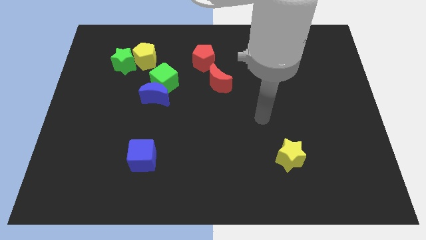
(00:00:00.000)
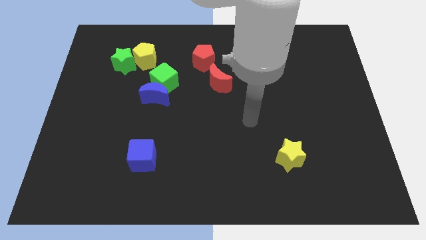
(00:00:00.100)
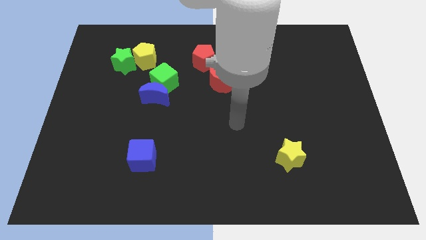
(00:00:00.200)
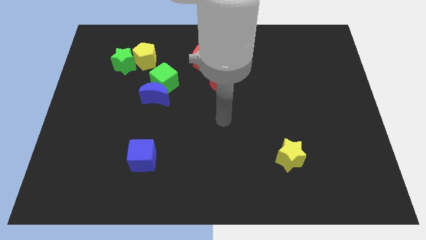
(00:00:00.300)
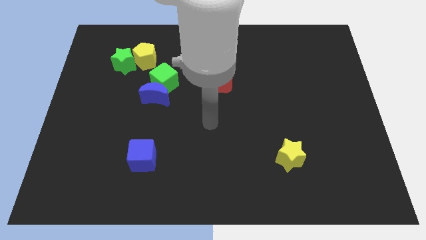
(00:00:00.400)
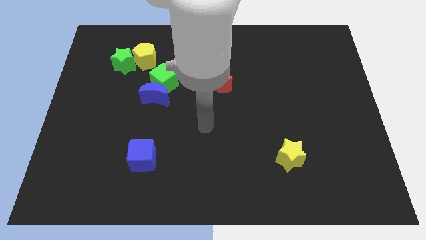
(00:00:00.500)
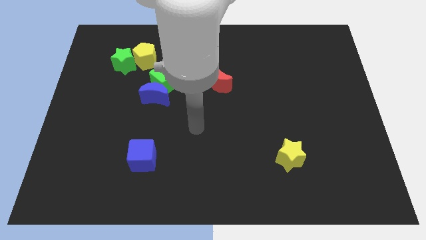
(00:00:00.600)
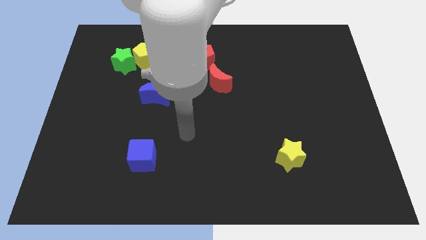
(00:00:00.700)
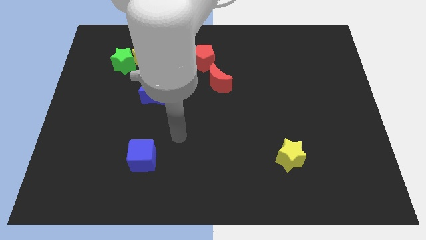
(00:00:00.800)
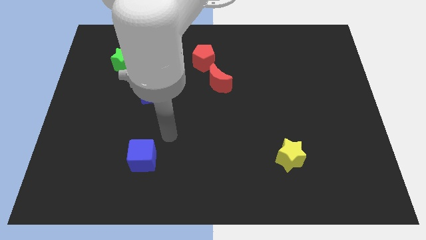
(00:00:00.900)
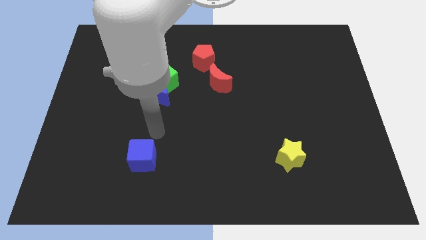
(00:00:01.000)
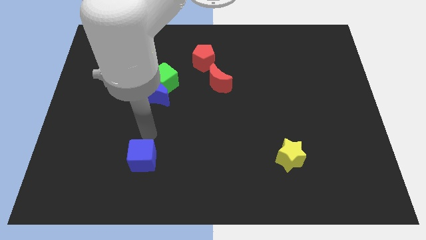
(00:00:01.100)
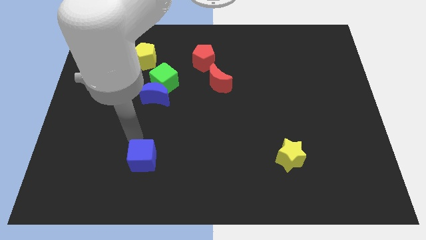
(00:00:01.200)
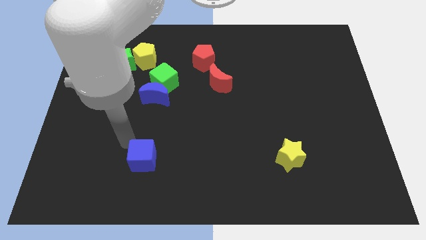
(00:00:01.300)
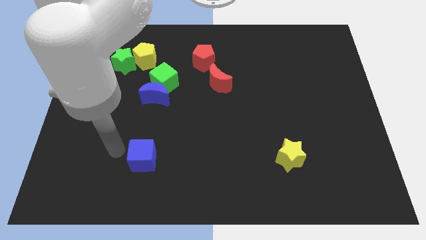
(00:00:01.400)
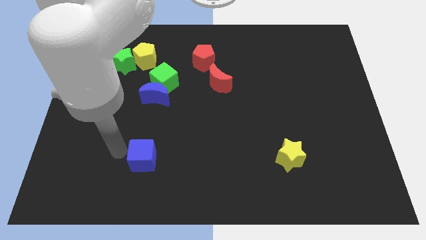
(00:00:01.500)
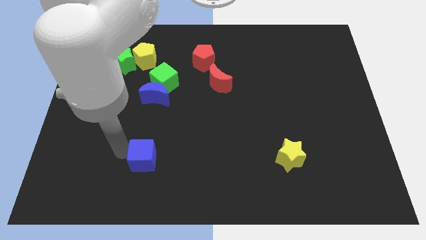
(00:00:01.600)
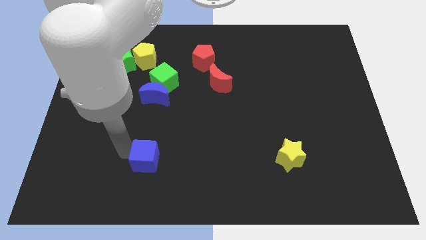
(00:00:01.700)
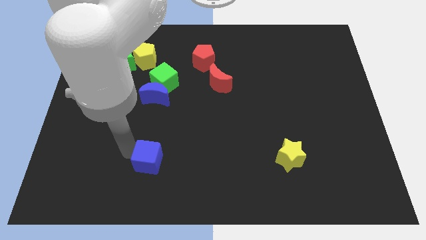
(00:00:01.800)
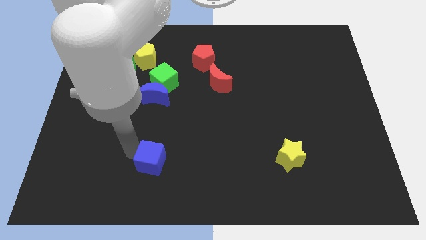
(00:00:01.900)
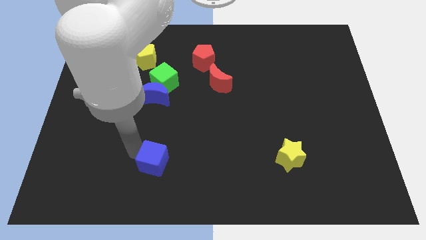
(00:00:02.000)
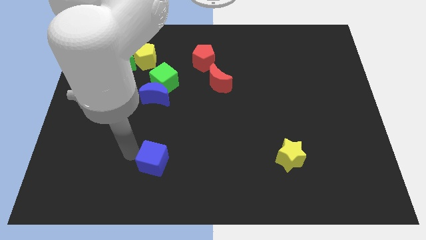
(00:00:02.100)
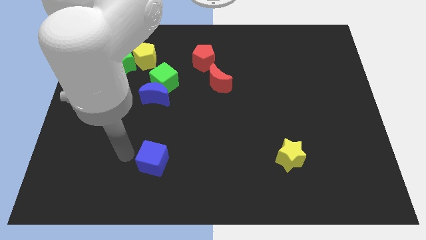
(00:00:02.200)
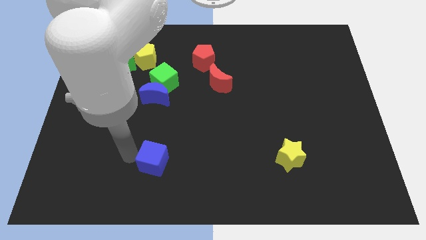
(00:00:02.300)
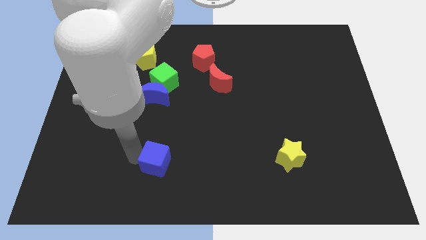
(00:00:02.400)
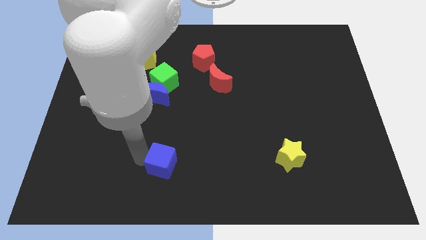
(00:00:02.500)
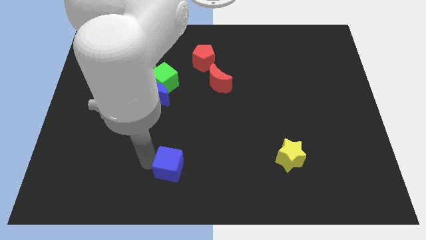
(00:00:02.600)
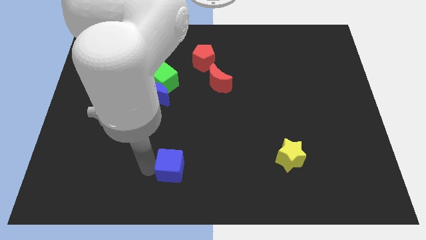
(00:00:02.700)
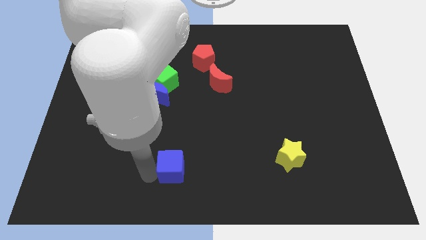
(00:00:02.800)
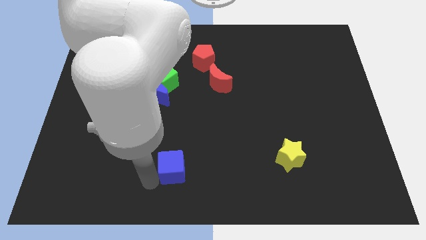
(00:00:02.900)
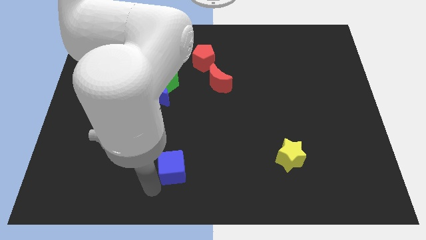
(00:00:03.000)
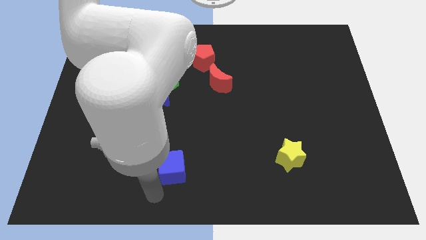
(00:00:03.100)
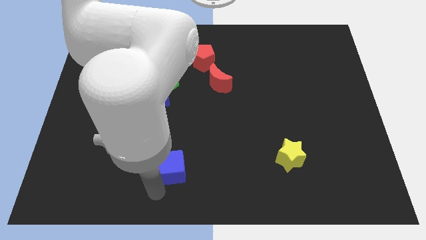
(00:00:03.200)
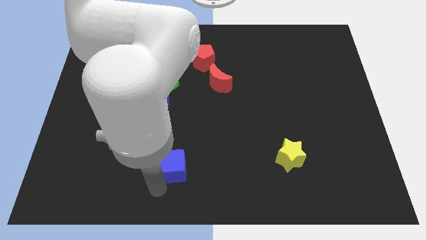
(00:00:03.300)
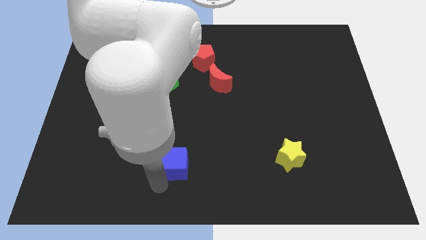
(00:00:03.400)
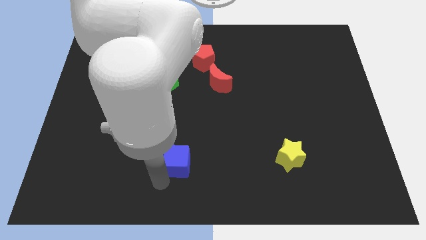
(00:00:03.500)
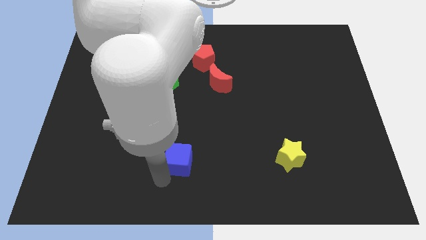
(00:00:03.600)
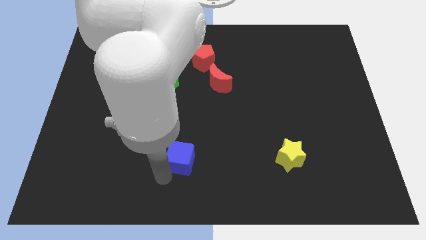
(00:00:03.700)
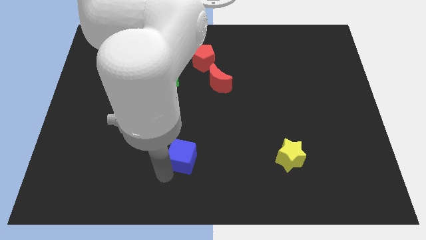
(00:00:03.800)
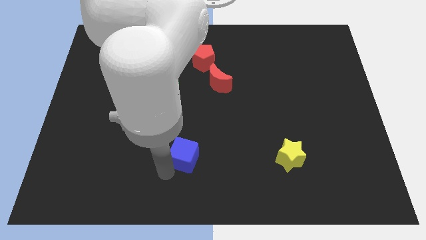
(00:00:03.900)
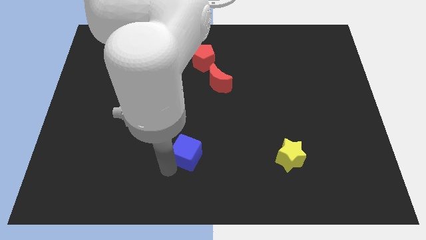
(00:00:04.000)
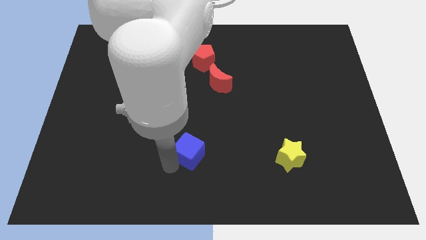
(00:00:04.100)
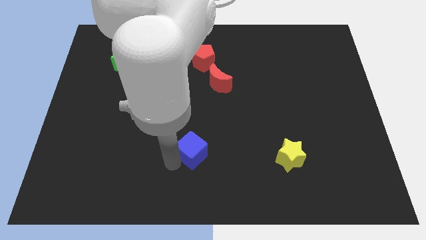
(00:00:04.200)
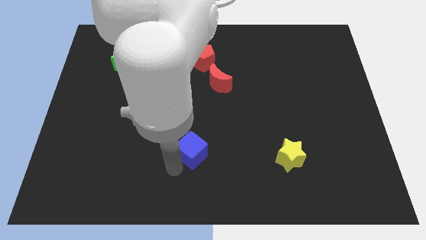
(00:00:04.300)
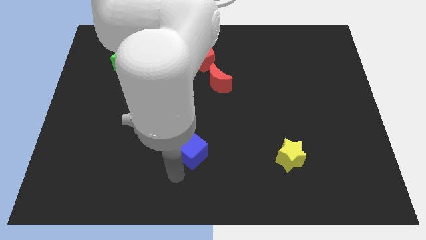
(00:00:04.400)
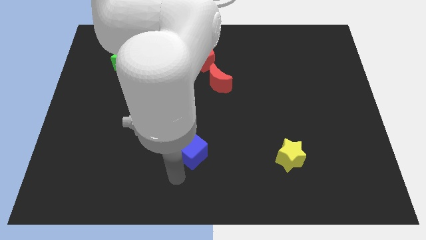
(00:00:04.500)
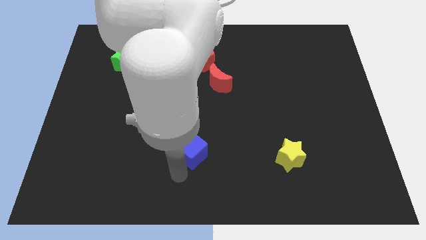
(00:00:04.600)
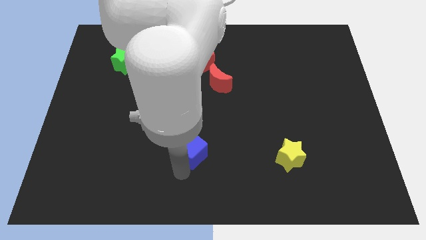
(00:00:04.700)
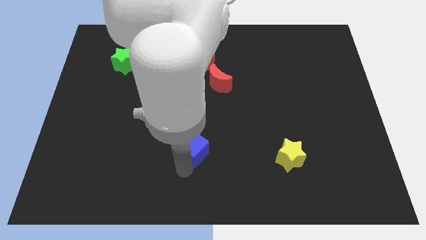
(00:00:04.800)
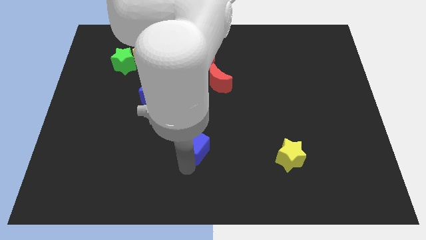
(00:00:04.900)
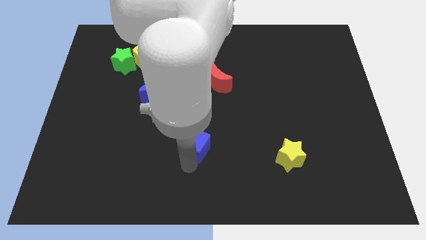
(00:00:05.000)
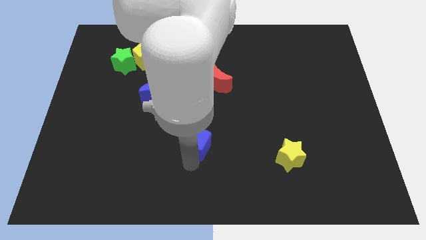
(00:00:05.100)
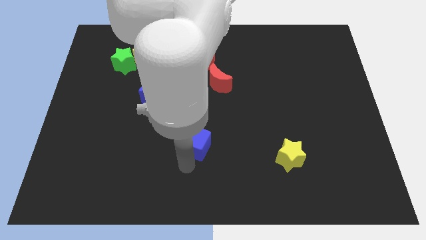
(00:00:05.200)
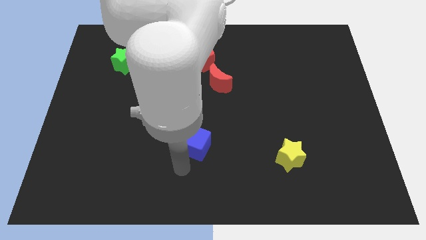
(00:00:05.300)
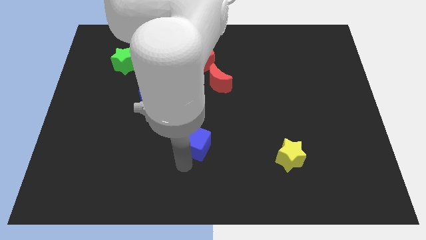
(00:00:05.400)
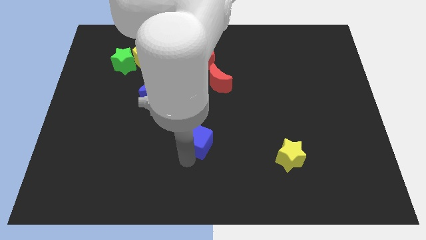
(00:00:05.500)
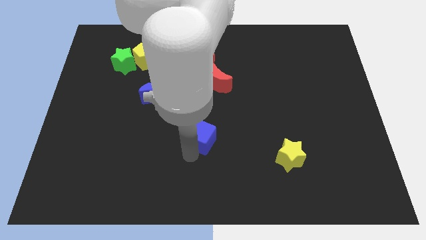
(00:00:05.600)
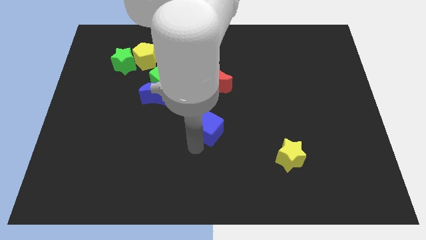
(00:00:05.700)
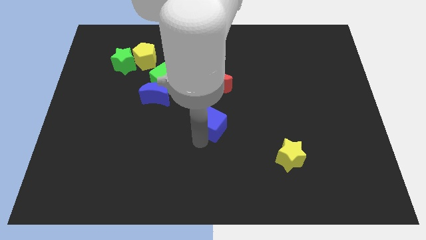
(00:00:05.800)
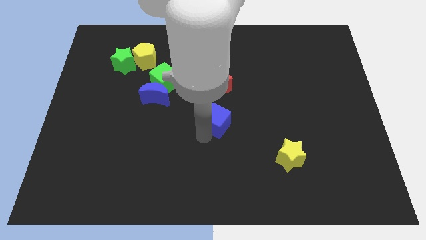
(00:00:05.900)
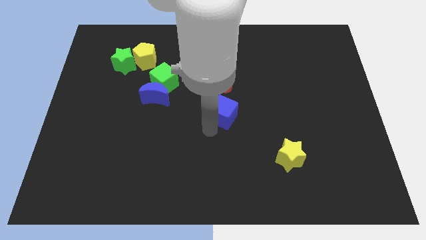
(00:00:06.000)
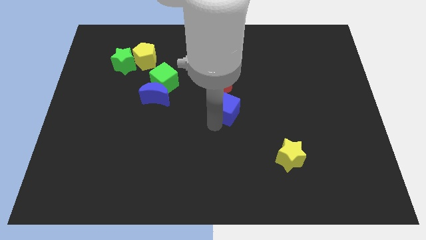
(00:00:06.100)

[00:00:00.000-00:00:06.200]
slide the blue cube diagonally down and to the right of the red moon
